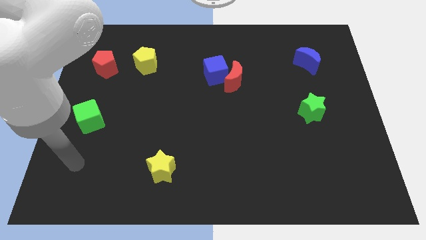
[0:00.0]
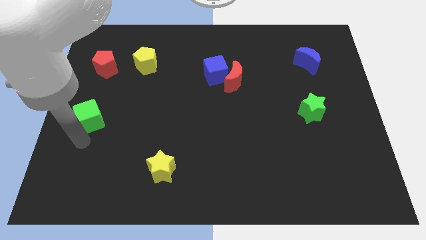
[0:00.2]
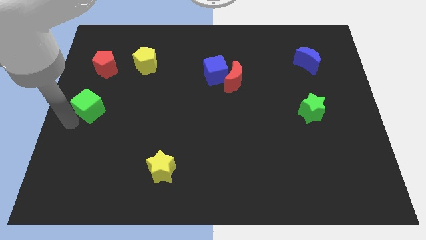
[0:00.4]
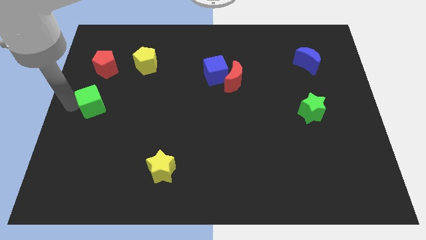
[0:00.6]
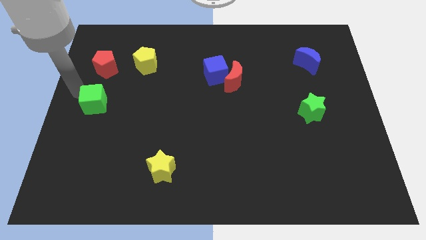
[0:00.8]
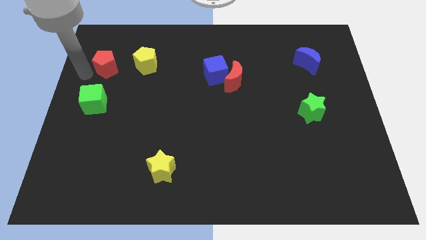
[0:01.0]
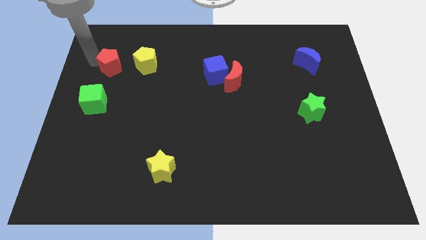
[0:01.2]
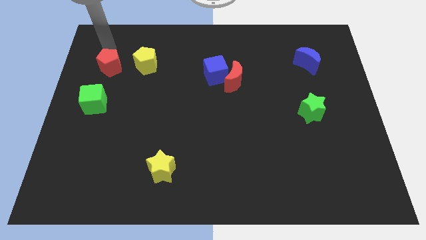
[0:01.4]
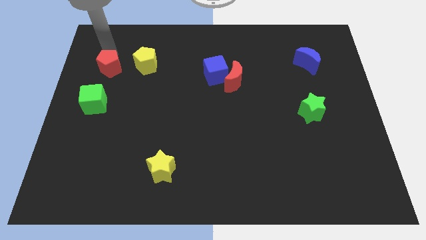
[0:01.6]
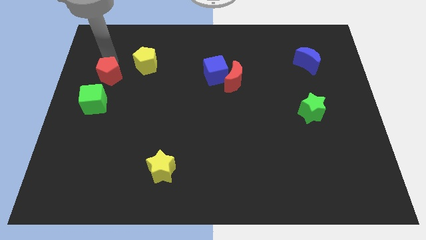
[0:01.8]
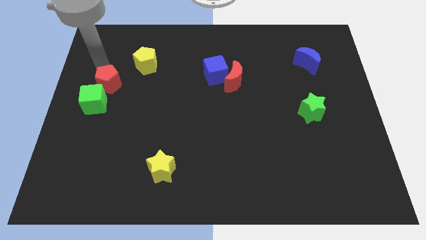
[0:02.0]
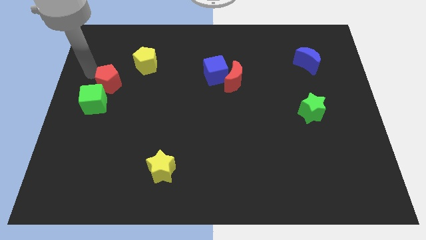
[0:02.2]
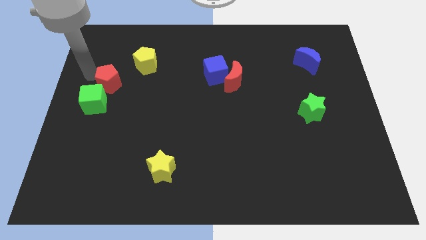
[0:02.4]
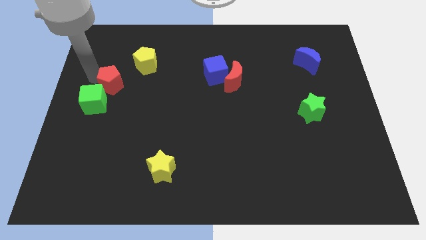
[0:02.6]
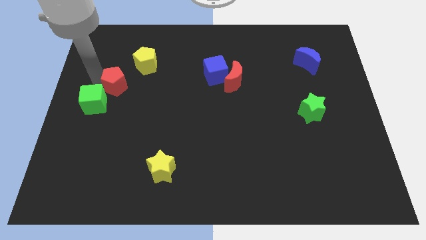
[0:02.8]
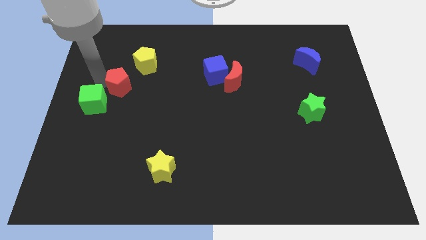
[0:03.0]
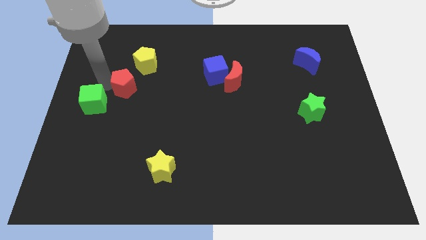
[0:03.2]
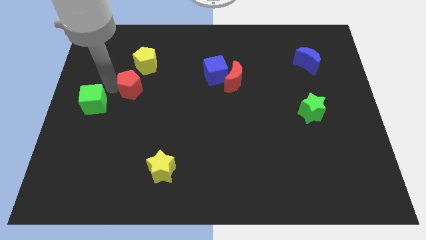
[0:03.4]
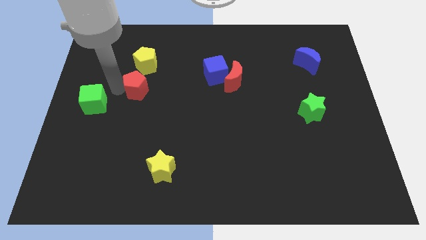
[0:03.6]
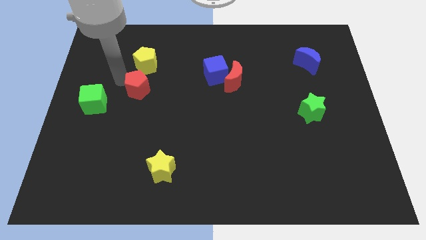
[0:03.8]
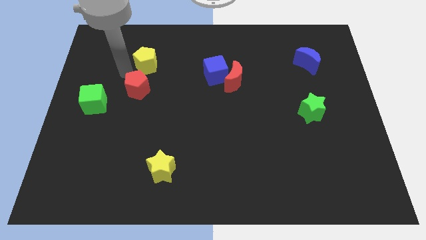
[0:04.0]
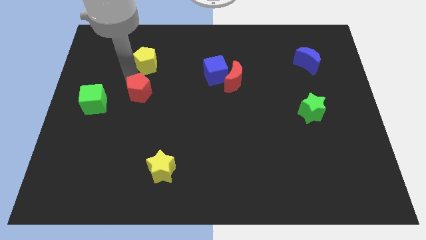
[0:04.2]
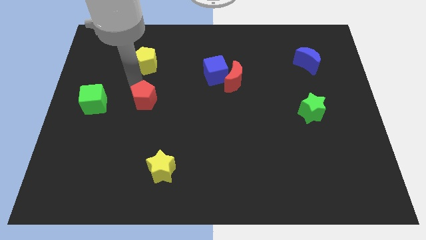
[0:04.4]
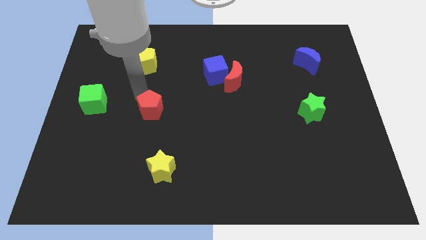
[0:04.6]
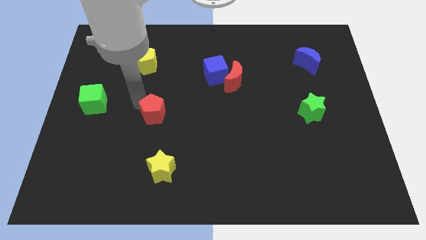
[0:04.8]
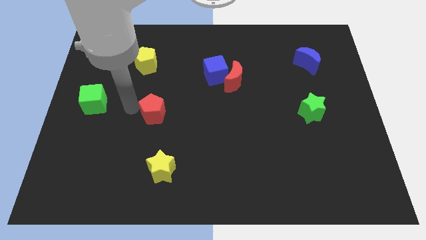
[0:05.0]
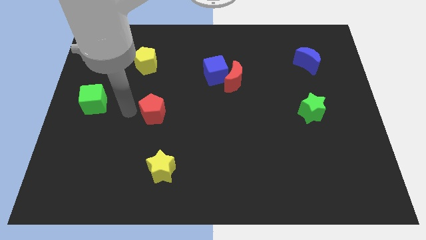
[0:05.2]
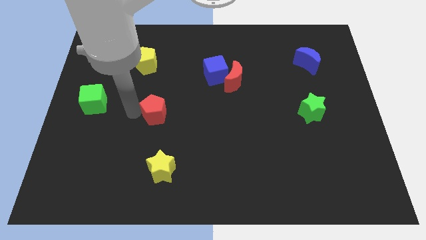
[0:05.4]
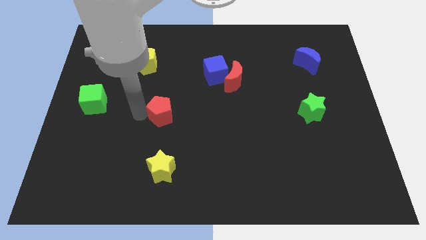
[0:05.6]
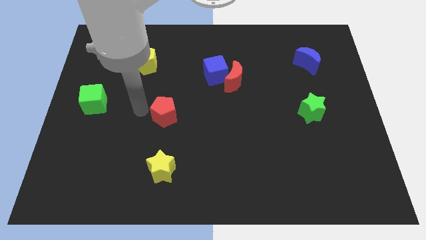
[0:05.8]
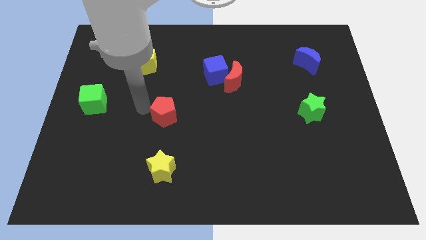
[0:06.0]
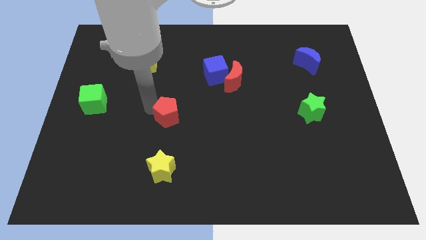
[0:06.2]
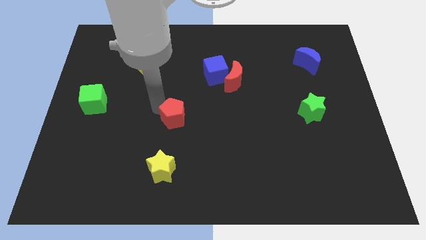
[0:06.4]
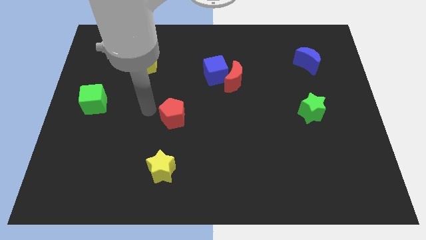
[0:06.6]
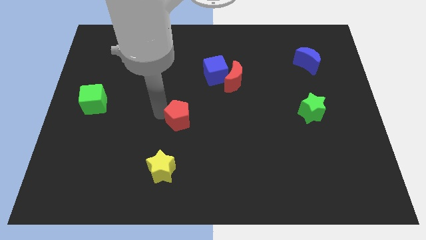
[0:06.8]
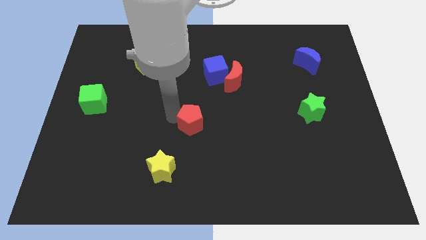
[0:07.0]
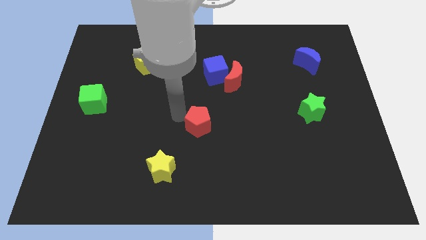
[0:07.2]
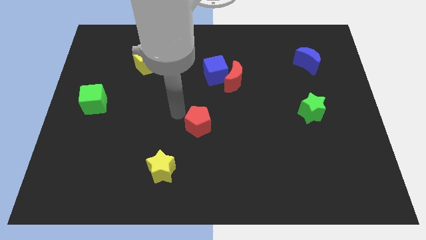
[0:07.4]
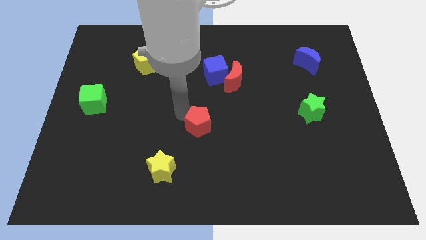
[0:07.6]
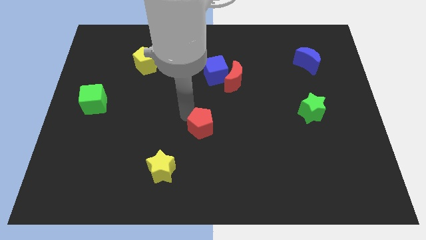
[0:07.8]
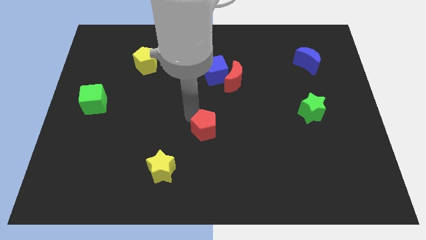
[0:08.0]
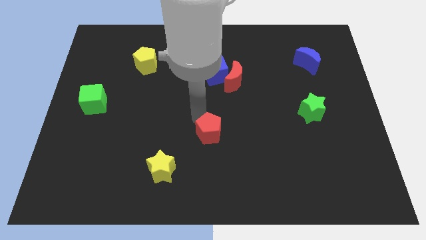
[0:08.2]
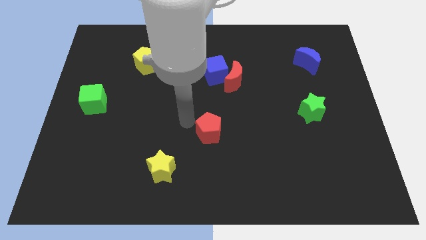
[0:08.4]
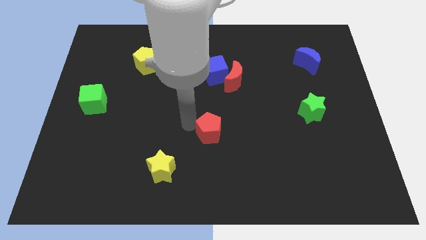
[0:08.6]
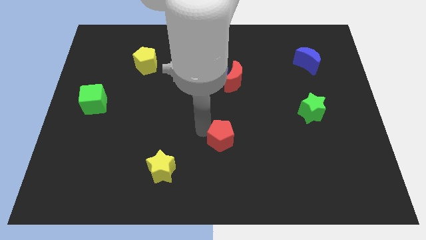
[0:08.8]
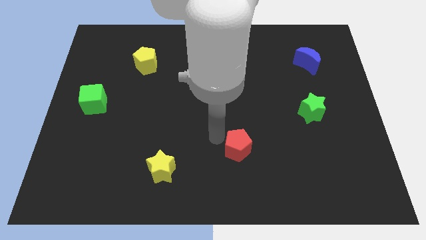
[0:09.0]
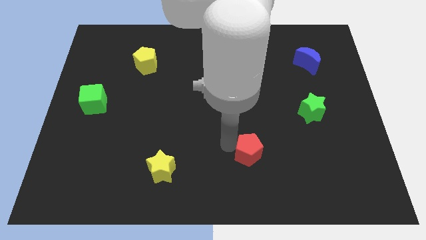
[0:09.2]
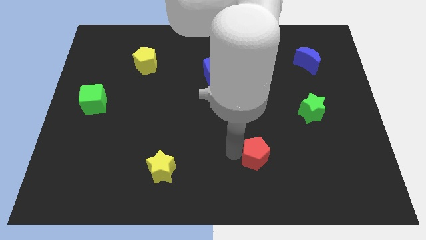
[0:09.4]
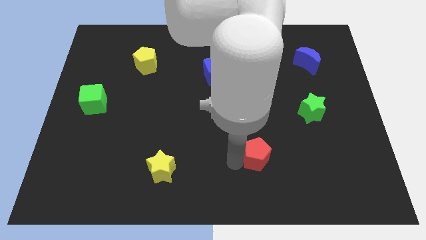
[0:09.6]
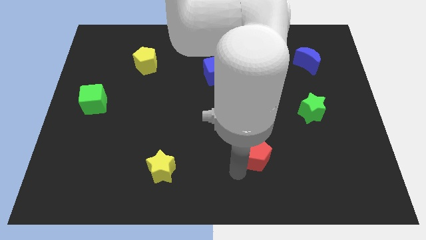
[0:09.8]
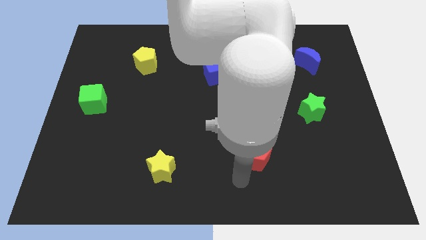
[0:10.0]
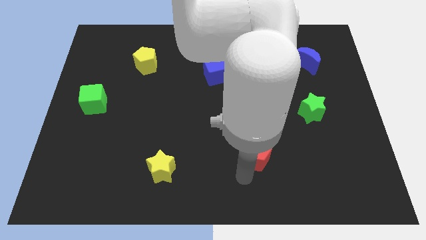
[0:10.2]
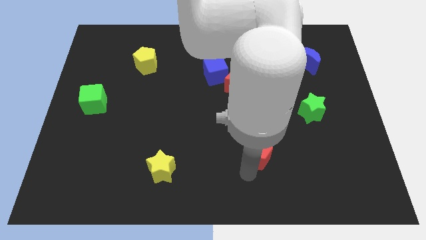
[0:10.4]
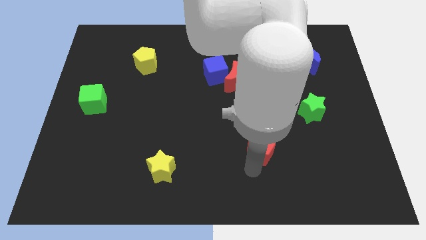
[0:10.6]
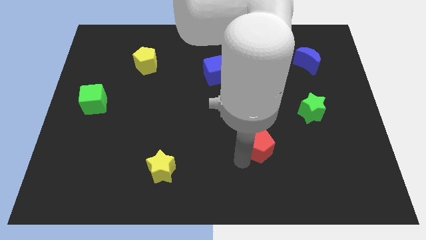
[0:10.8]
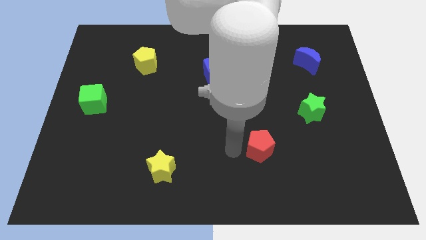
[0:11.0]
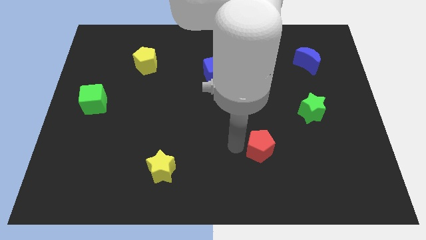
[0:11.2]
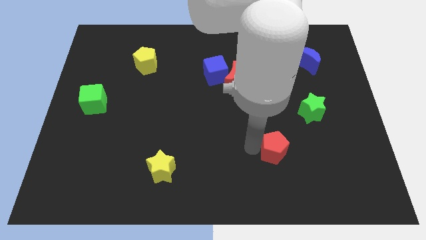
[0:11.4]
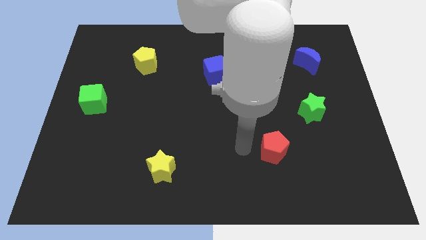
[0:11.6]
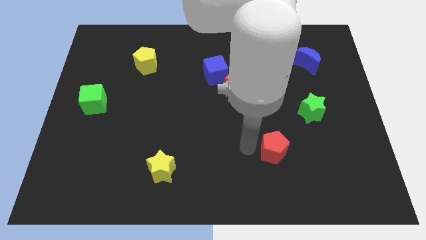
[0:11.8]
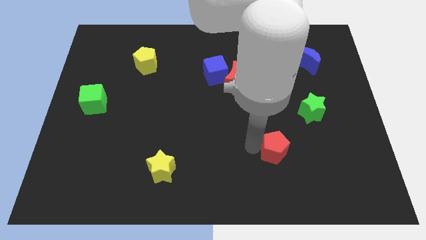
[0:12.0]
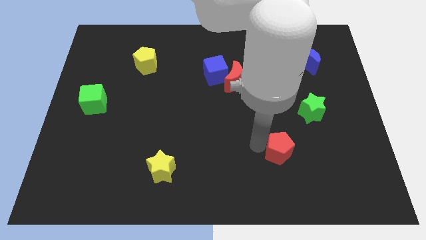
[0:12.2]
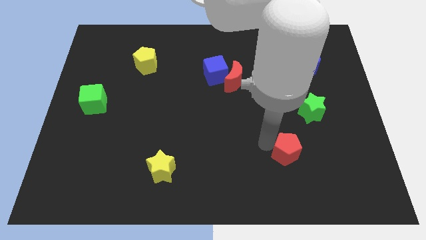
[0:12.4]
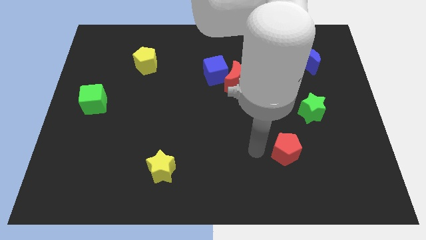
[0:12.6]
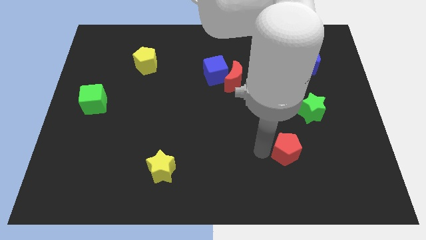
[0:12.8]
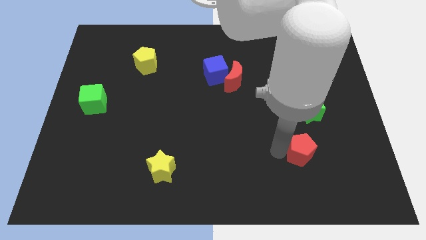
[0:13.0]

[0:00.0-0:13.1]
put the red pentagon below the green star

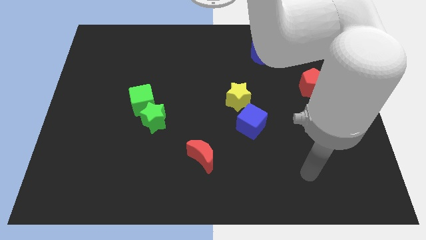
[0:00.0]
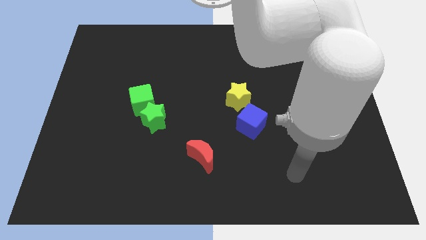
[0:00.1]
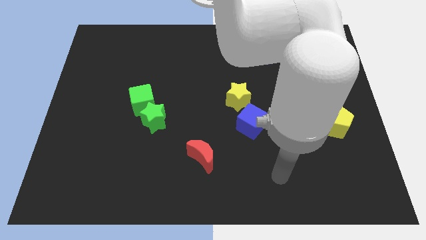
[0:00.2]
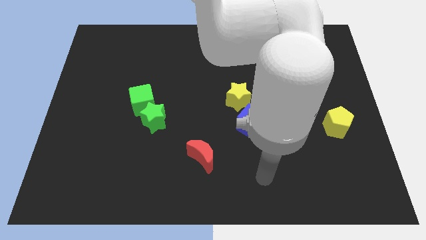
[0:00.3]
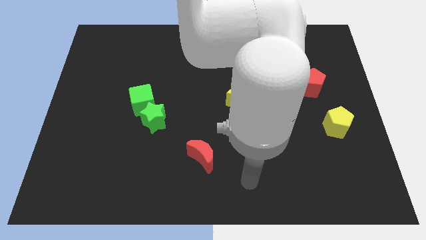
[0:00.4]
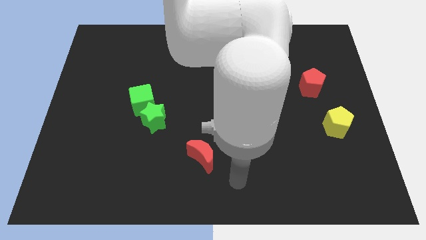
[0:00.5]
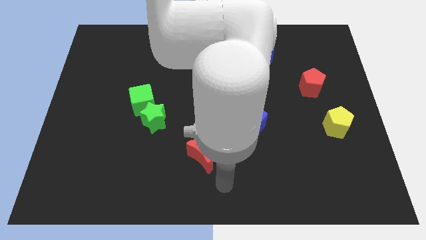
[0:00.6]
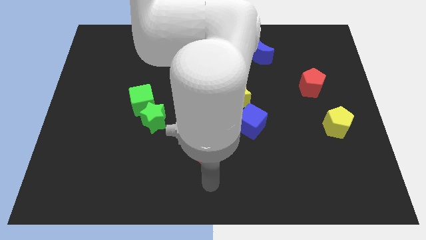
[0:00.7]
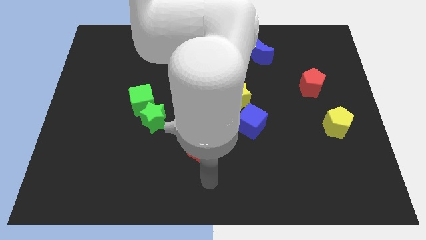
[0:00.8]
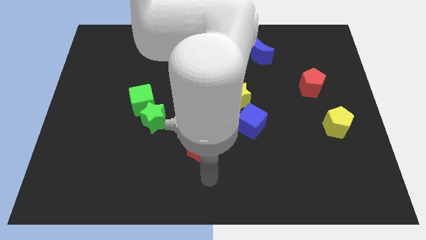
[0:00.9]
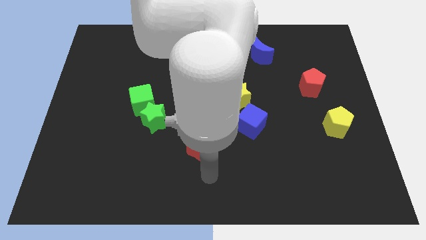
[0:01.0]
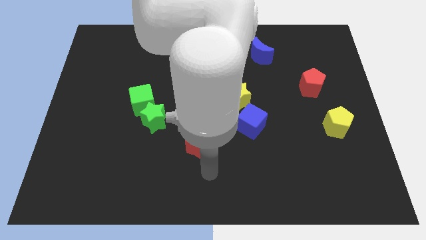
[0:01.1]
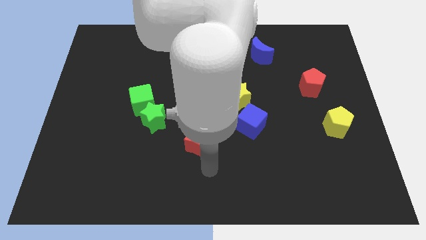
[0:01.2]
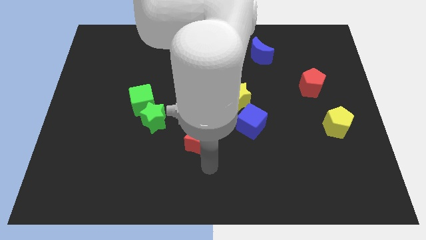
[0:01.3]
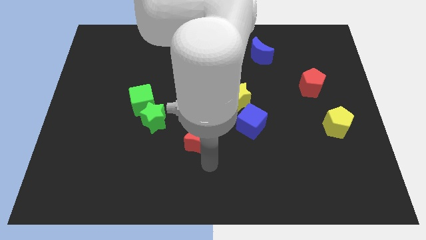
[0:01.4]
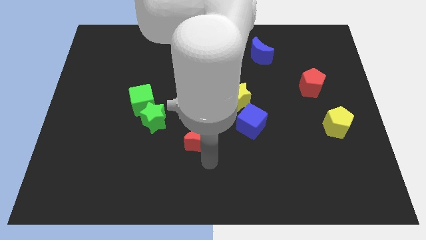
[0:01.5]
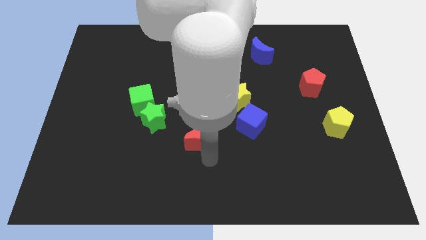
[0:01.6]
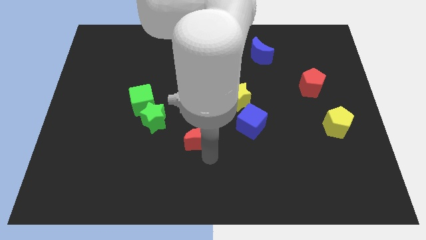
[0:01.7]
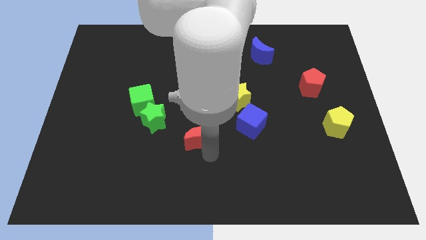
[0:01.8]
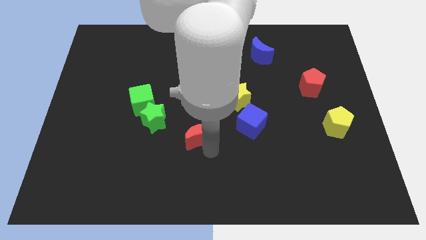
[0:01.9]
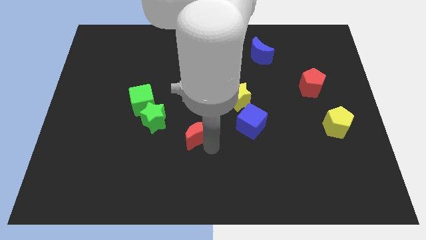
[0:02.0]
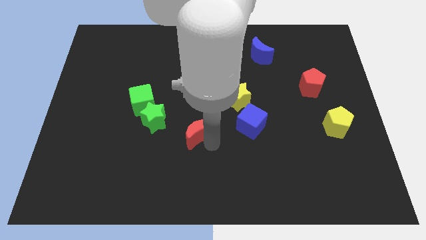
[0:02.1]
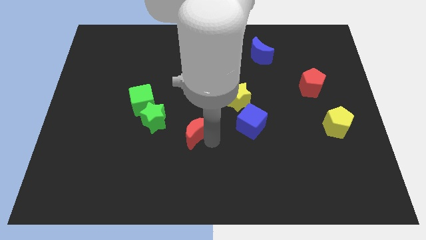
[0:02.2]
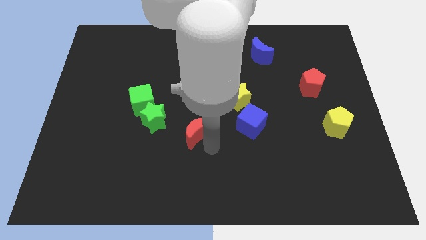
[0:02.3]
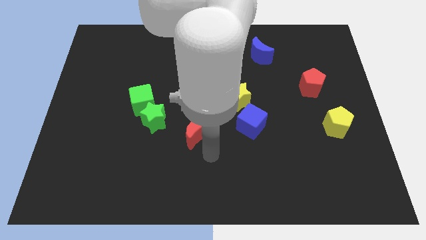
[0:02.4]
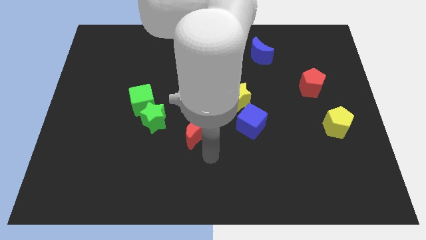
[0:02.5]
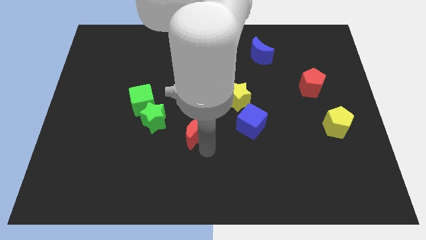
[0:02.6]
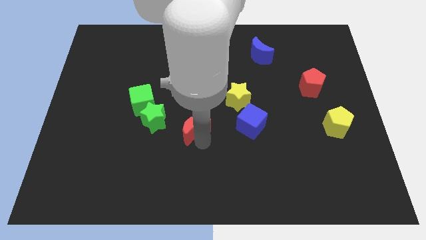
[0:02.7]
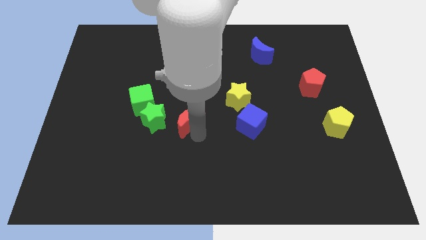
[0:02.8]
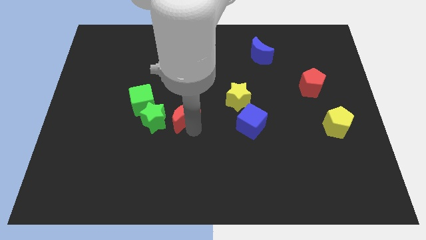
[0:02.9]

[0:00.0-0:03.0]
slide the red moon to the top right of the green star
